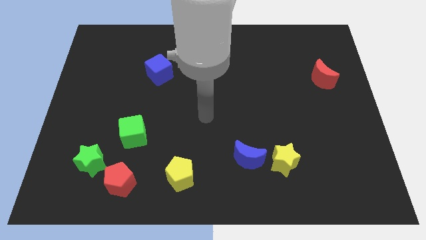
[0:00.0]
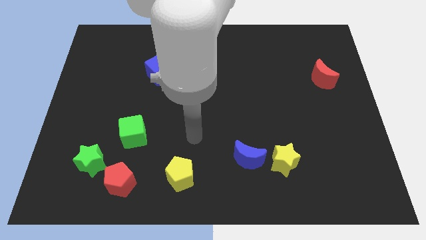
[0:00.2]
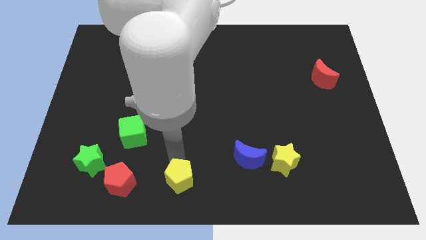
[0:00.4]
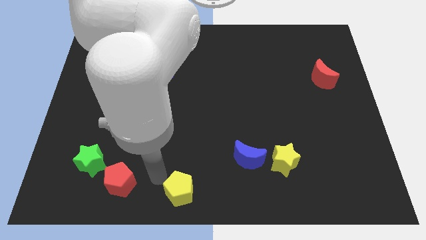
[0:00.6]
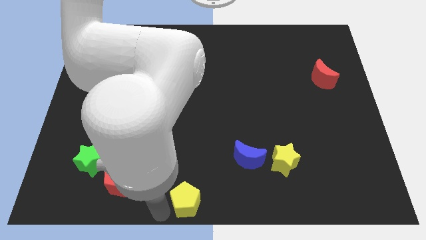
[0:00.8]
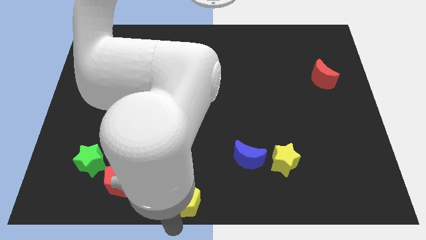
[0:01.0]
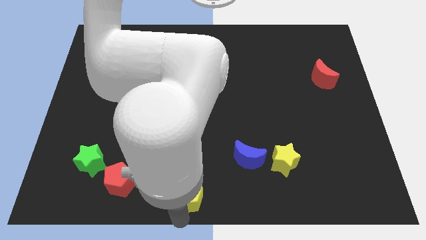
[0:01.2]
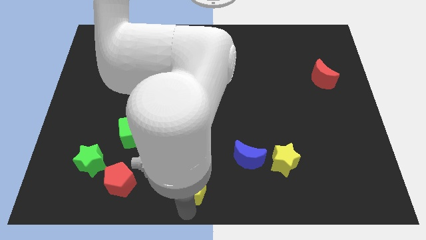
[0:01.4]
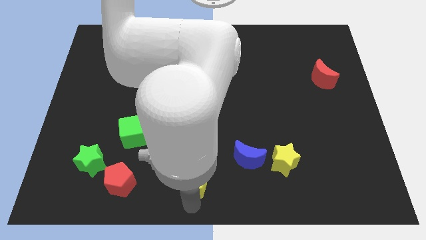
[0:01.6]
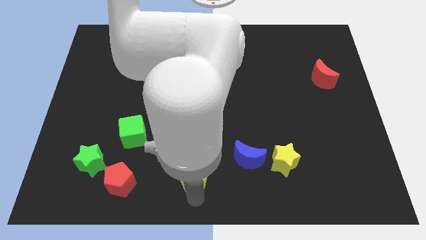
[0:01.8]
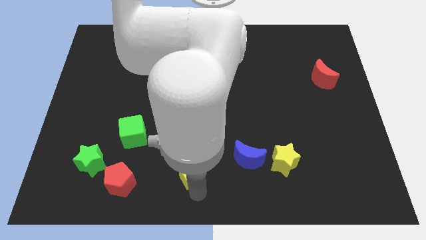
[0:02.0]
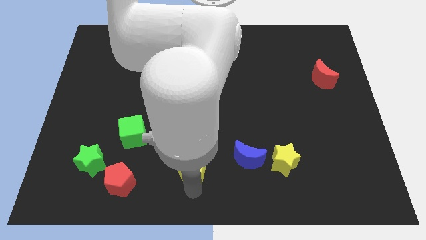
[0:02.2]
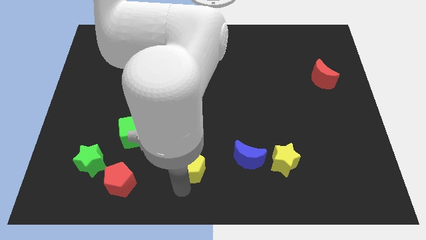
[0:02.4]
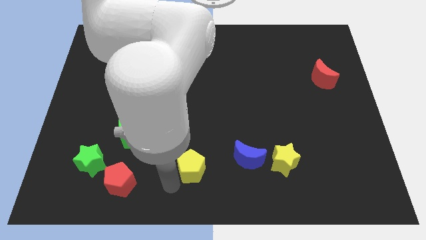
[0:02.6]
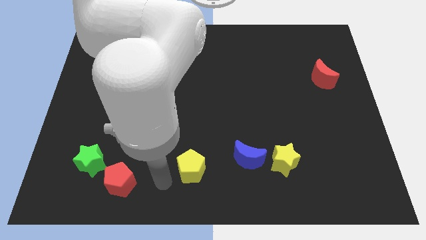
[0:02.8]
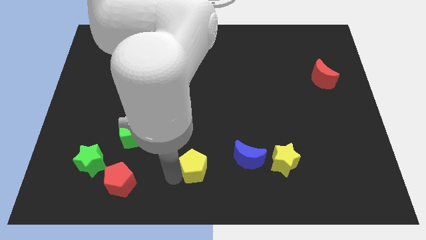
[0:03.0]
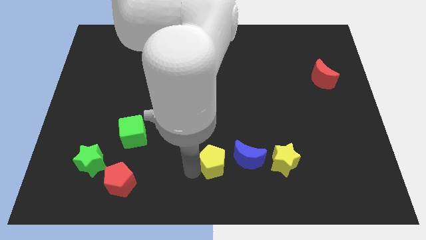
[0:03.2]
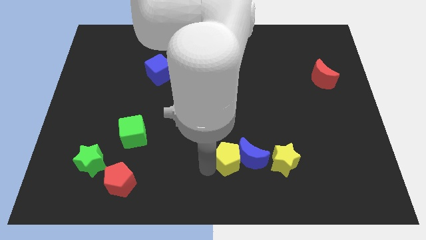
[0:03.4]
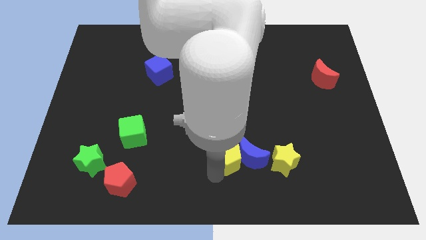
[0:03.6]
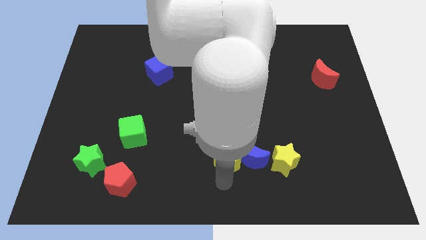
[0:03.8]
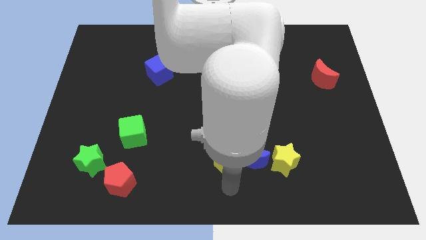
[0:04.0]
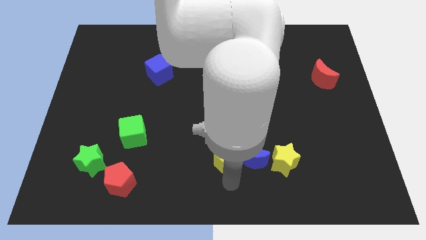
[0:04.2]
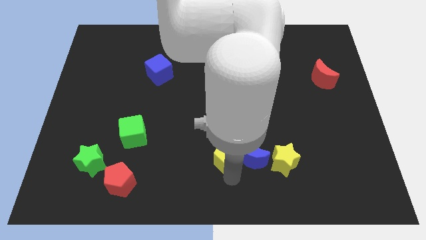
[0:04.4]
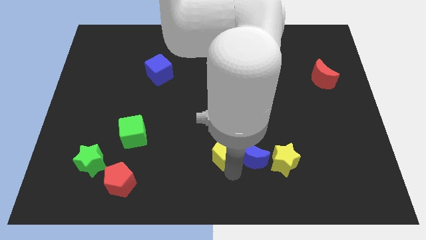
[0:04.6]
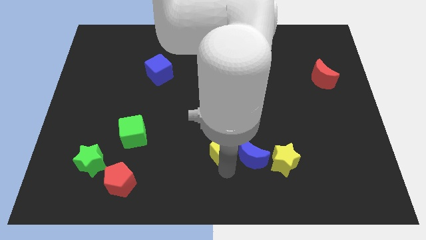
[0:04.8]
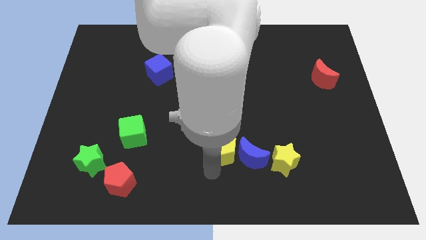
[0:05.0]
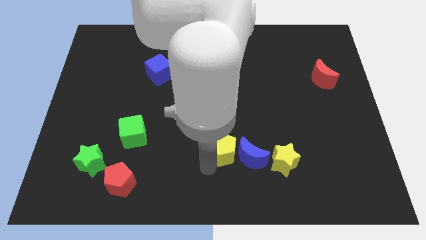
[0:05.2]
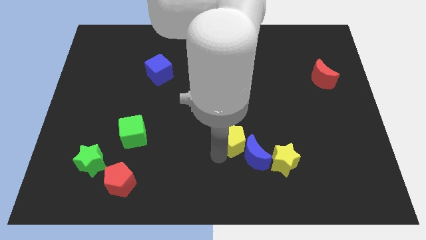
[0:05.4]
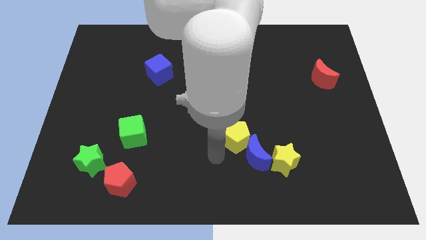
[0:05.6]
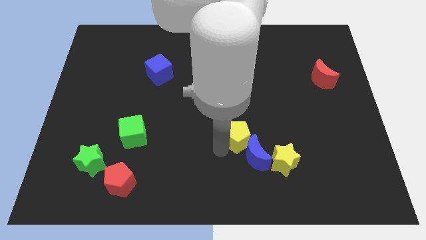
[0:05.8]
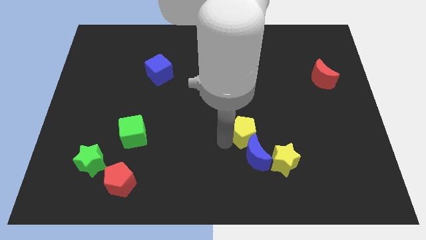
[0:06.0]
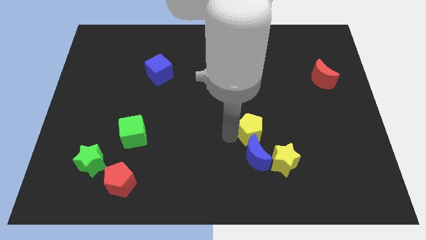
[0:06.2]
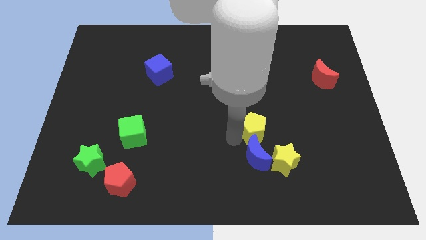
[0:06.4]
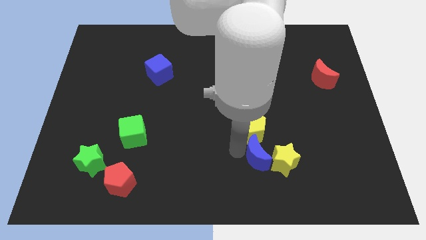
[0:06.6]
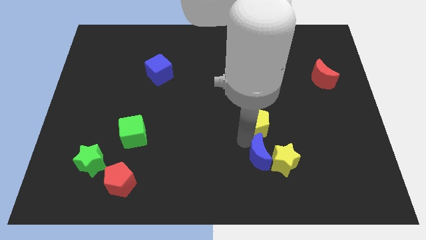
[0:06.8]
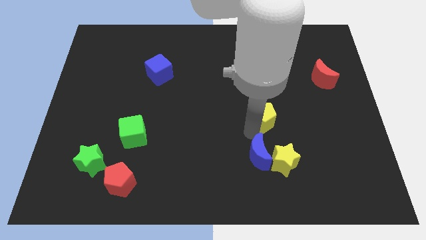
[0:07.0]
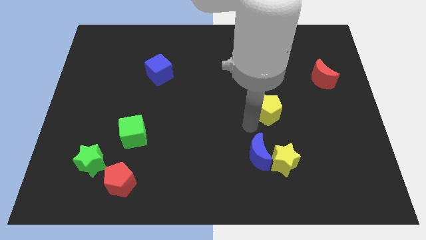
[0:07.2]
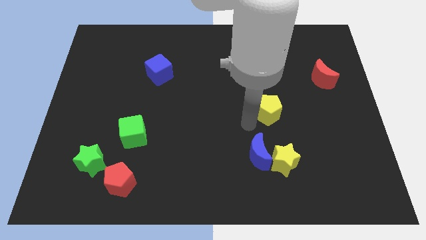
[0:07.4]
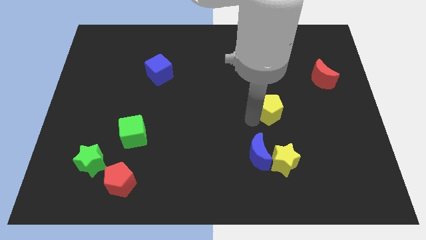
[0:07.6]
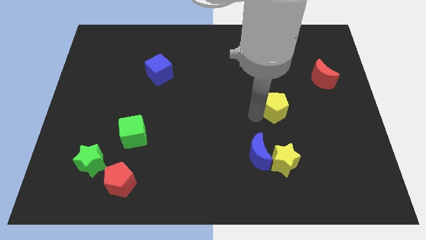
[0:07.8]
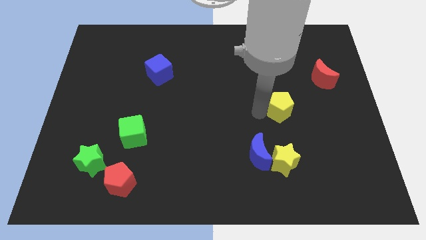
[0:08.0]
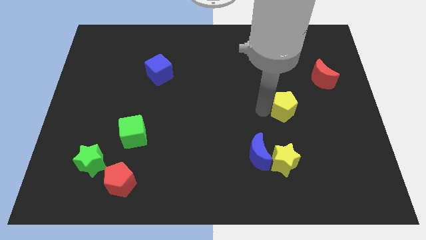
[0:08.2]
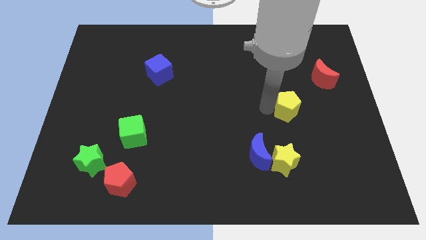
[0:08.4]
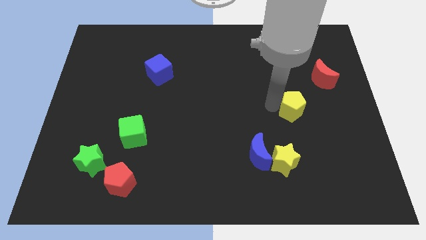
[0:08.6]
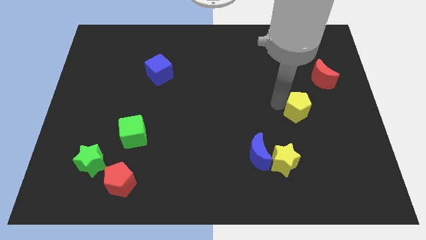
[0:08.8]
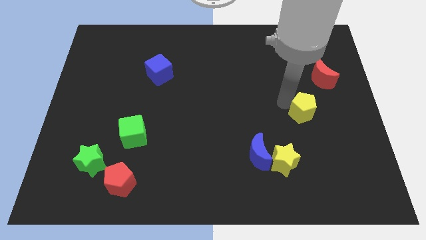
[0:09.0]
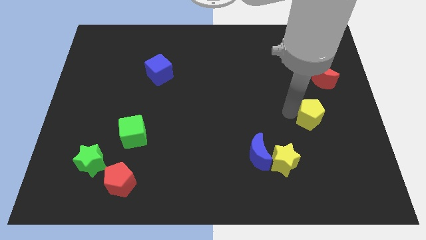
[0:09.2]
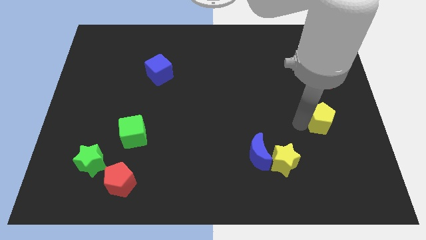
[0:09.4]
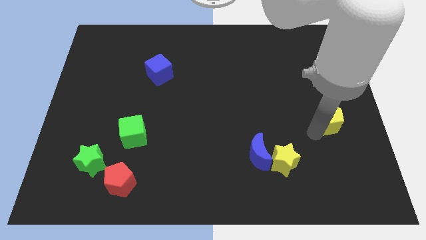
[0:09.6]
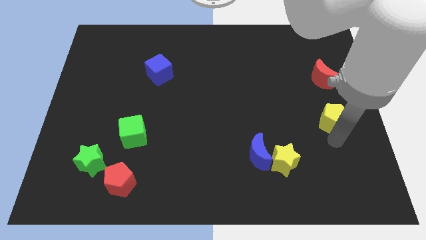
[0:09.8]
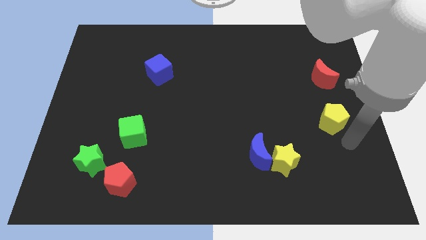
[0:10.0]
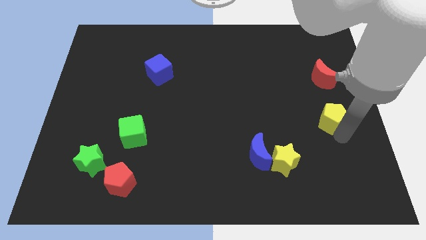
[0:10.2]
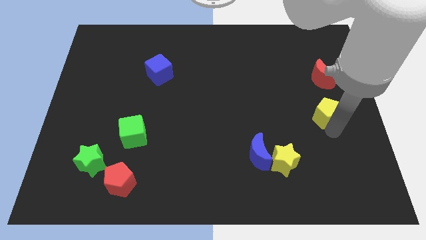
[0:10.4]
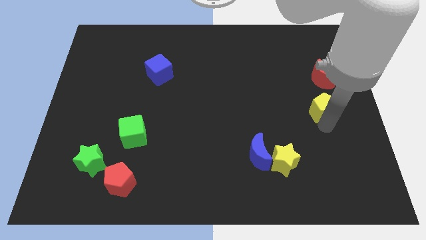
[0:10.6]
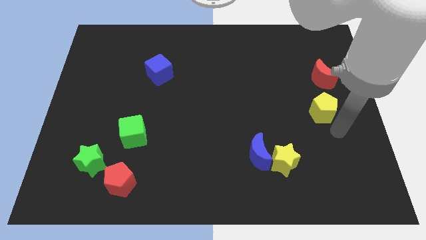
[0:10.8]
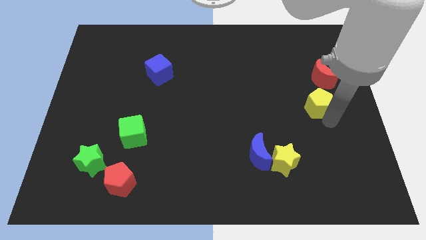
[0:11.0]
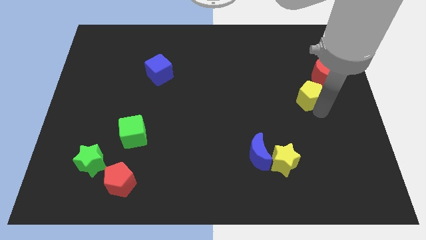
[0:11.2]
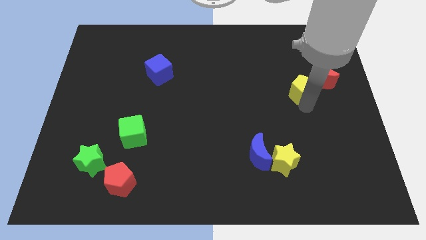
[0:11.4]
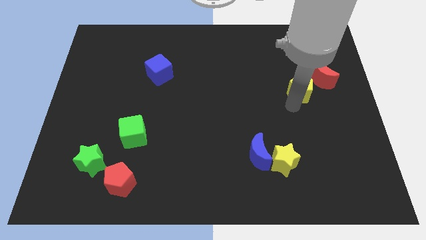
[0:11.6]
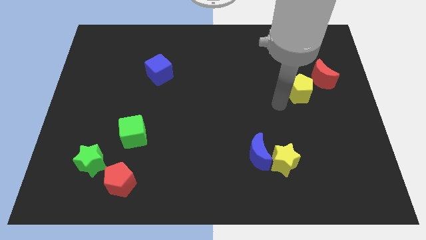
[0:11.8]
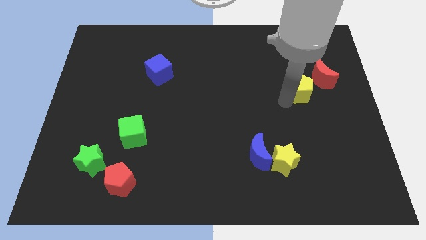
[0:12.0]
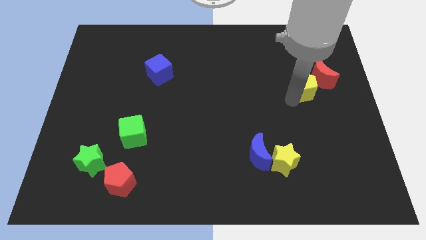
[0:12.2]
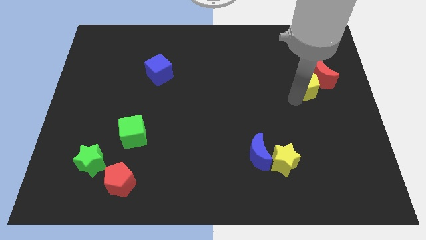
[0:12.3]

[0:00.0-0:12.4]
move the yellow pentagon to the red moon

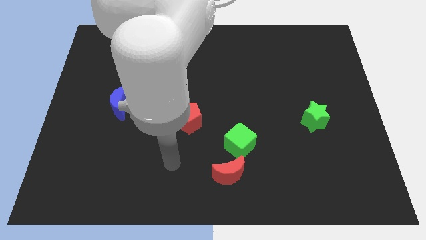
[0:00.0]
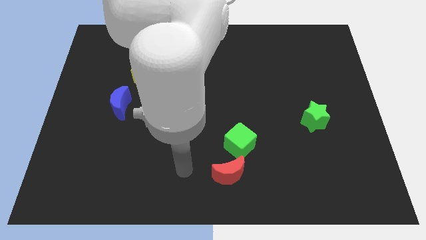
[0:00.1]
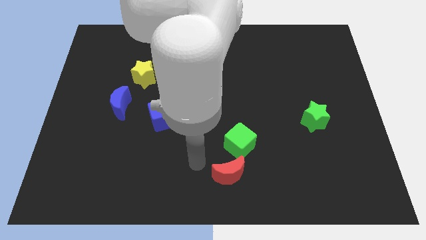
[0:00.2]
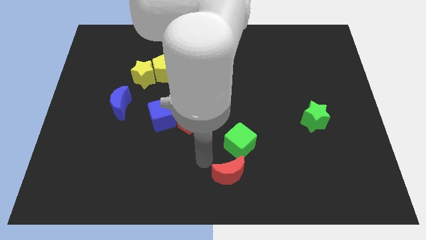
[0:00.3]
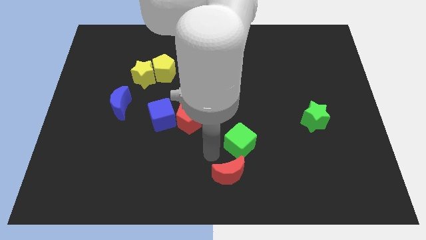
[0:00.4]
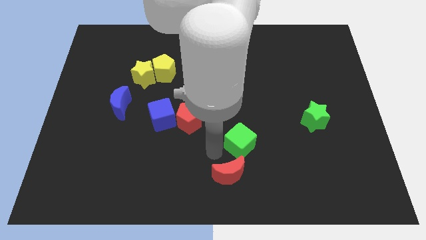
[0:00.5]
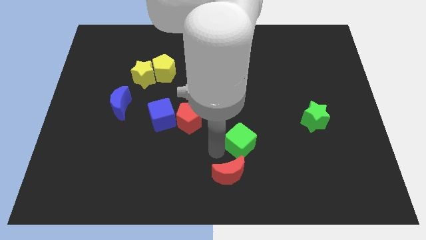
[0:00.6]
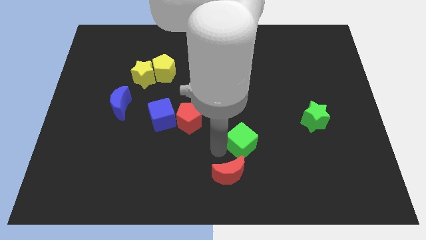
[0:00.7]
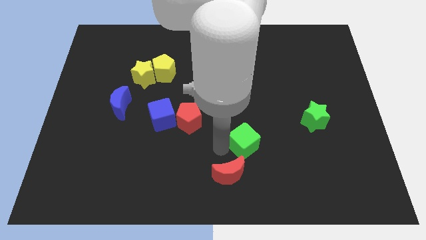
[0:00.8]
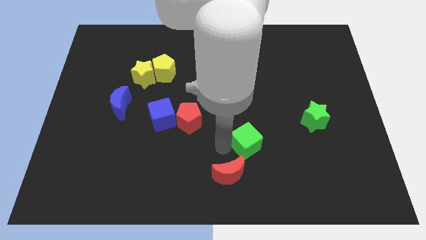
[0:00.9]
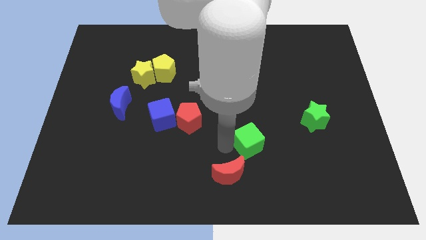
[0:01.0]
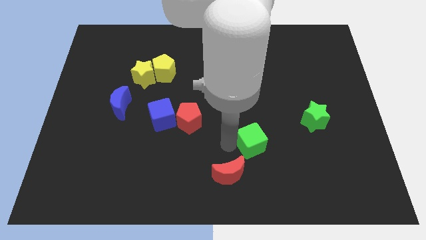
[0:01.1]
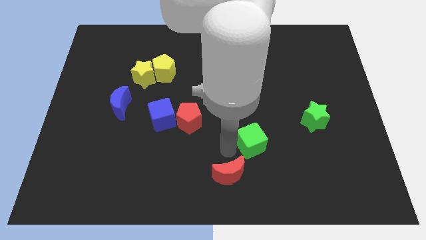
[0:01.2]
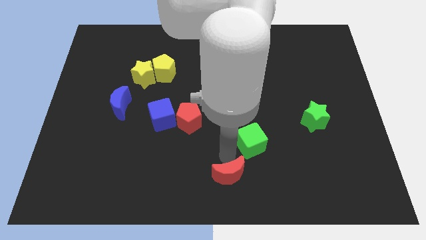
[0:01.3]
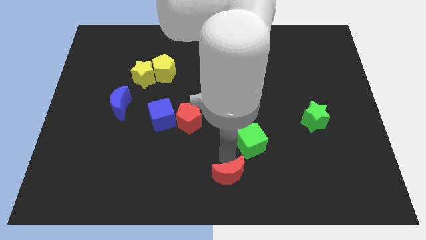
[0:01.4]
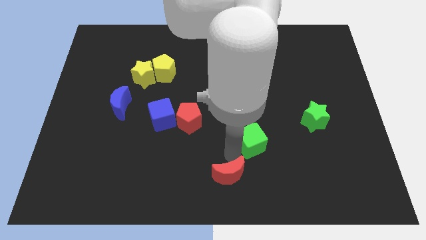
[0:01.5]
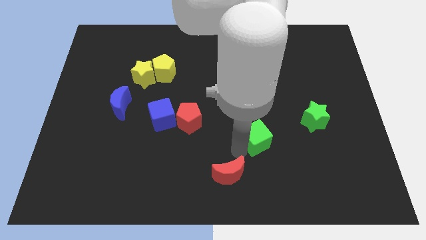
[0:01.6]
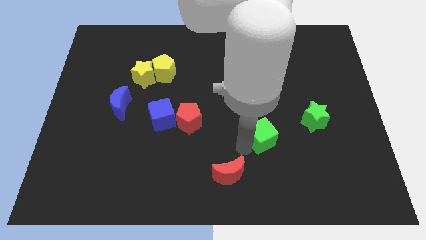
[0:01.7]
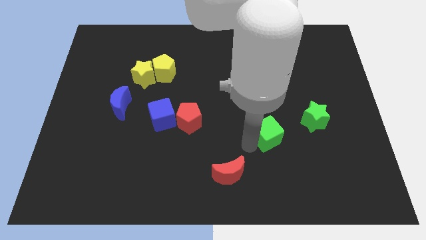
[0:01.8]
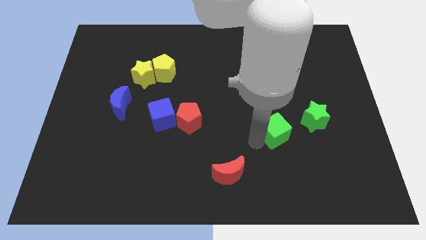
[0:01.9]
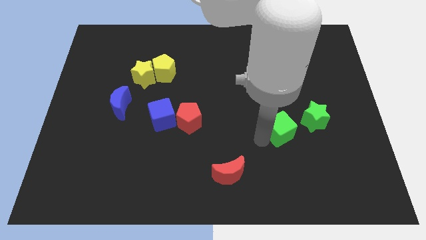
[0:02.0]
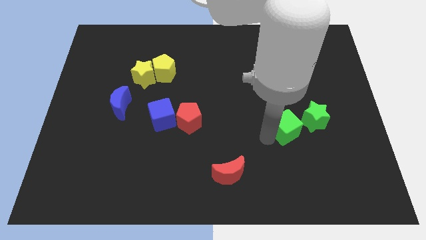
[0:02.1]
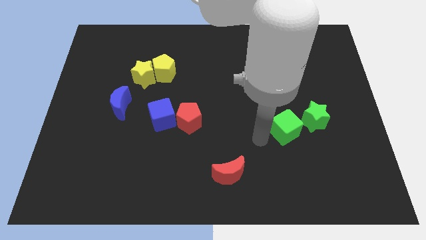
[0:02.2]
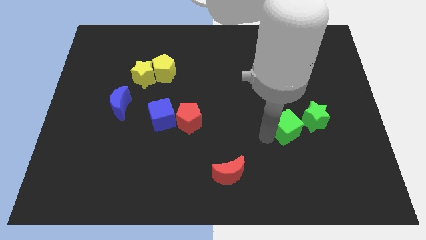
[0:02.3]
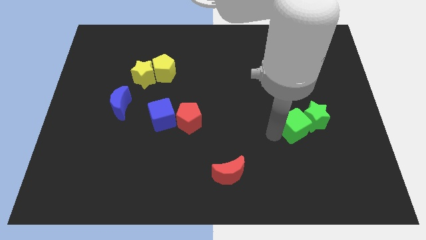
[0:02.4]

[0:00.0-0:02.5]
move the green cube to the green star
